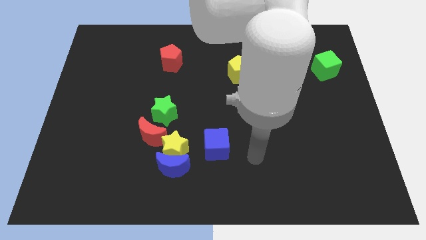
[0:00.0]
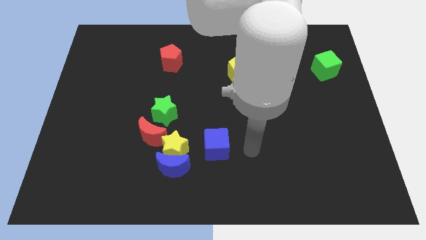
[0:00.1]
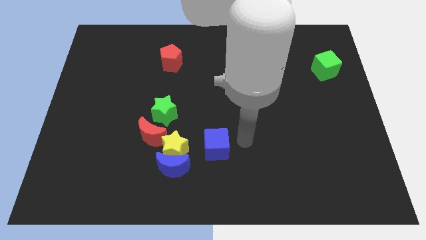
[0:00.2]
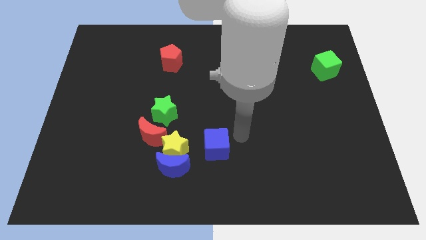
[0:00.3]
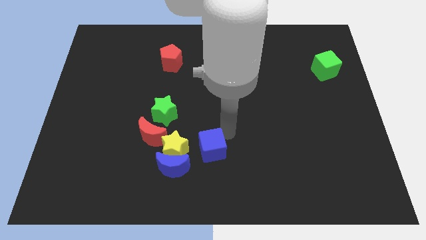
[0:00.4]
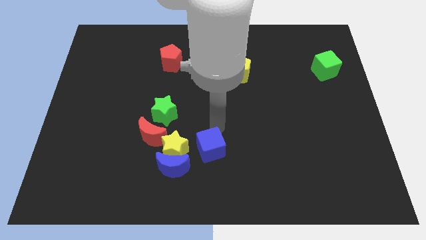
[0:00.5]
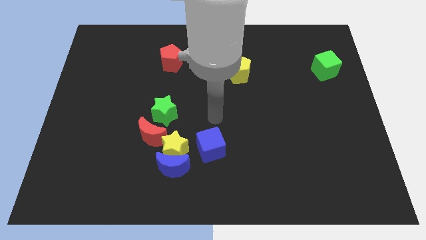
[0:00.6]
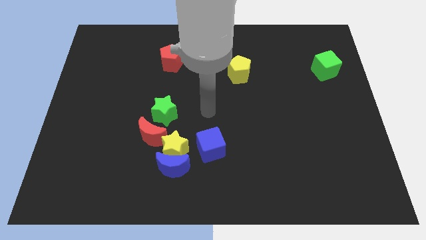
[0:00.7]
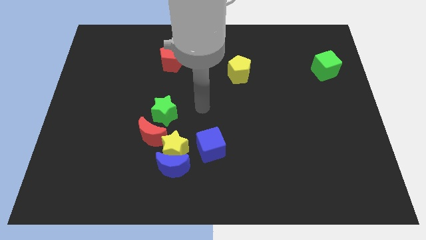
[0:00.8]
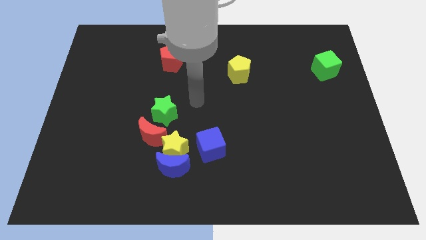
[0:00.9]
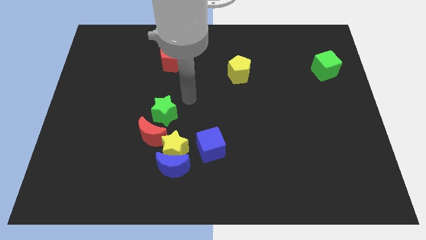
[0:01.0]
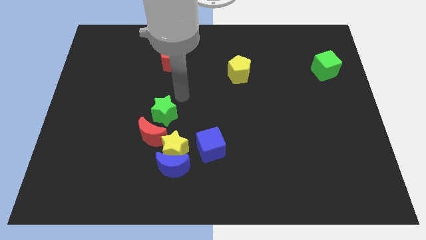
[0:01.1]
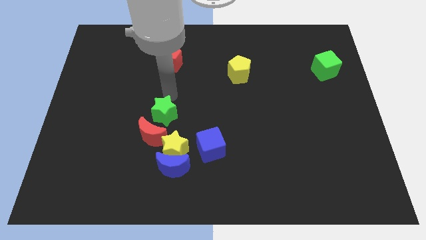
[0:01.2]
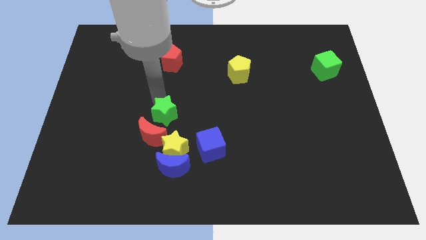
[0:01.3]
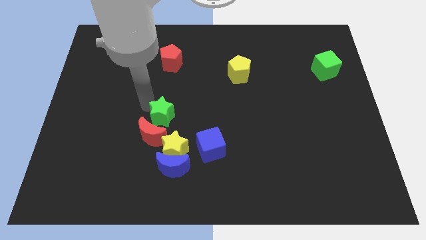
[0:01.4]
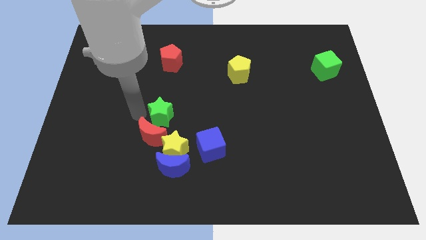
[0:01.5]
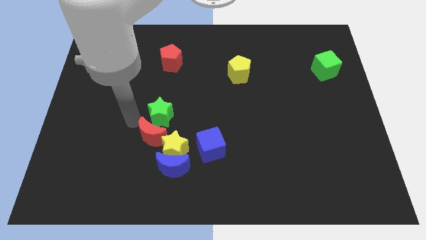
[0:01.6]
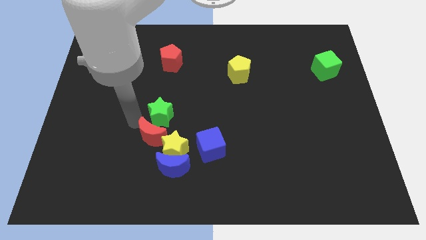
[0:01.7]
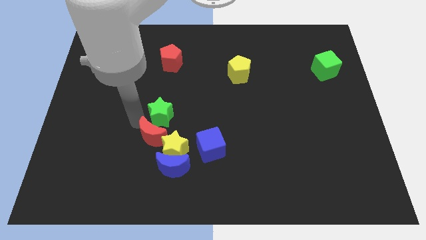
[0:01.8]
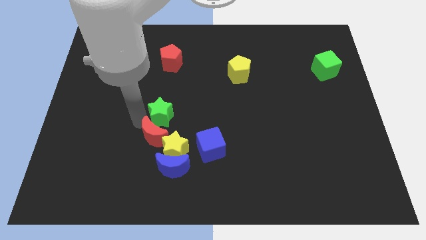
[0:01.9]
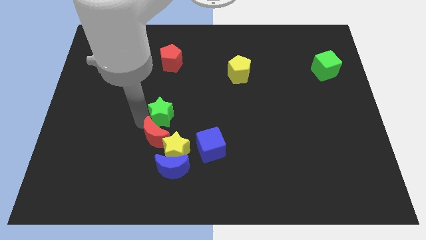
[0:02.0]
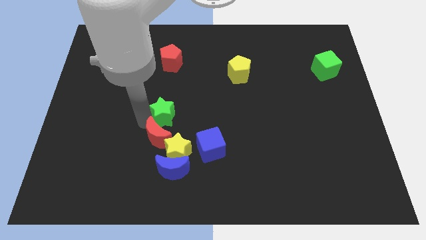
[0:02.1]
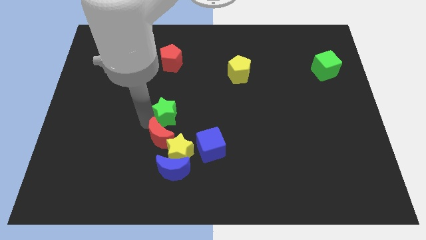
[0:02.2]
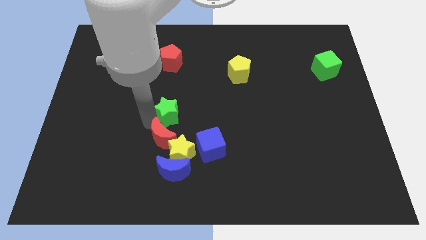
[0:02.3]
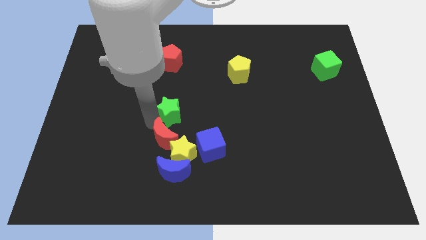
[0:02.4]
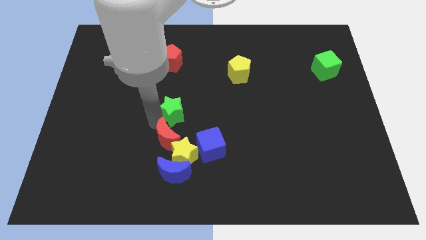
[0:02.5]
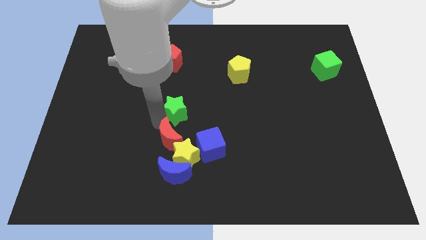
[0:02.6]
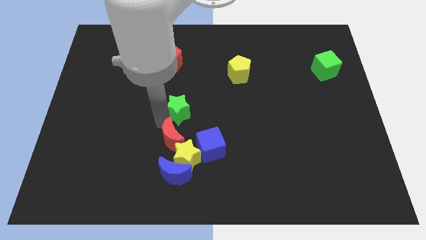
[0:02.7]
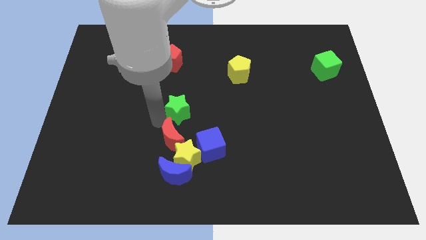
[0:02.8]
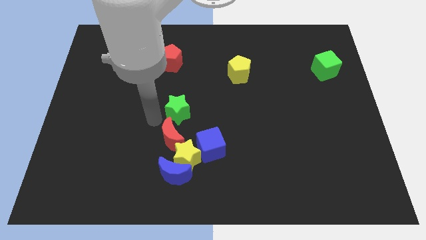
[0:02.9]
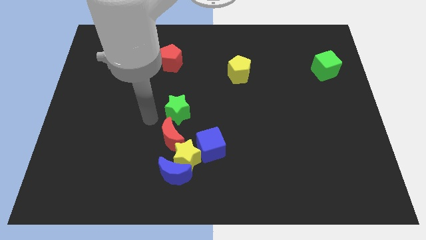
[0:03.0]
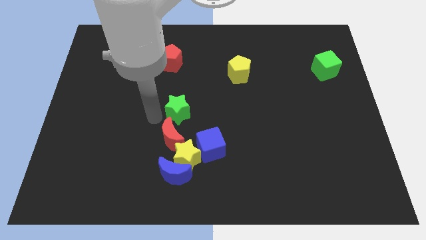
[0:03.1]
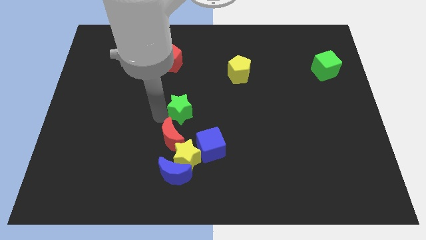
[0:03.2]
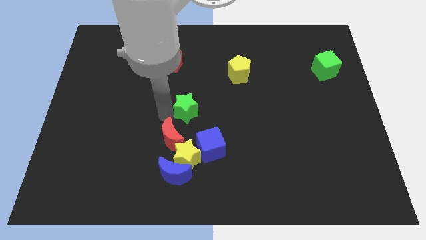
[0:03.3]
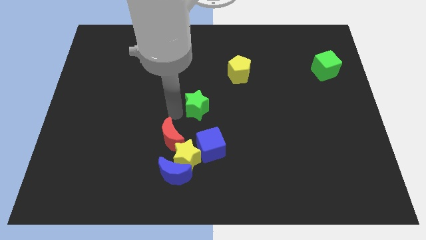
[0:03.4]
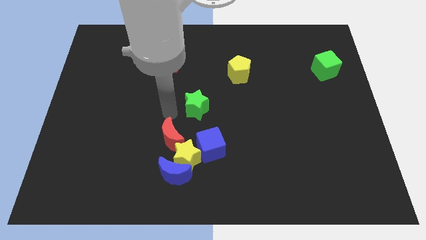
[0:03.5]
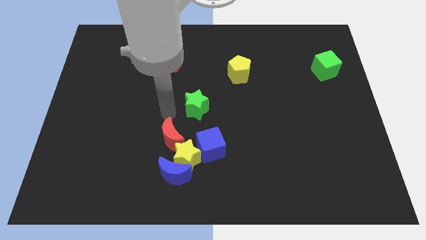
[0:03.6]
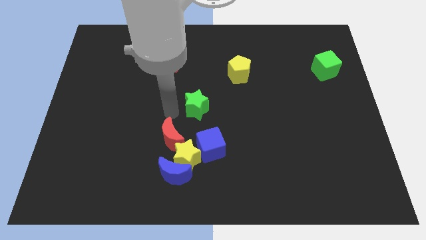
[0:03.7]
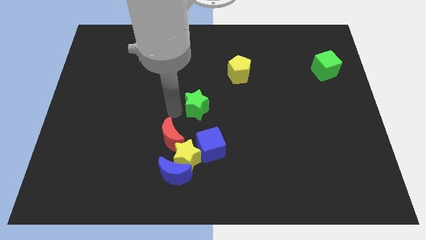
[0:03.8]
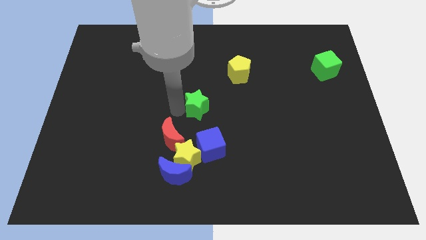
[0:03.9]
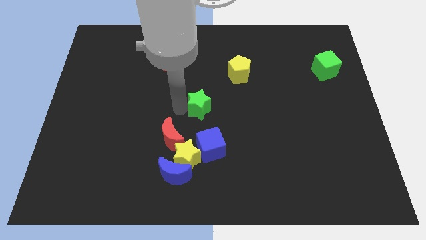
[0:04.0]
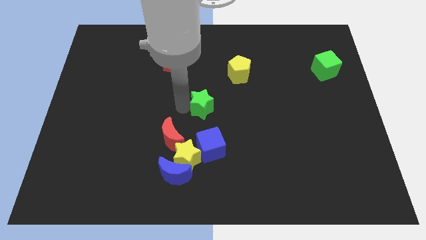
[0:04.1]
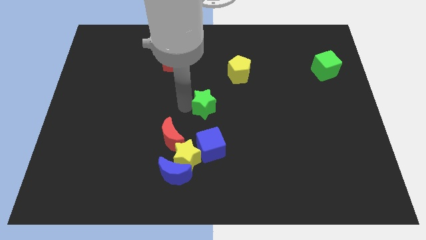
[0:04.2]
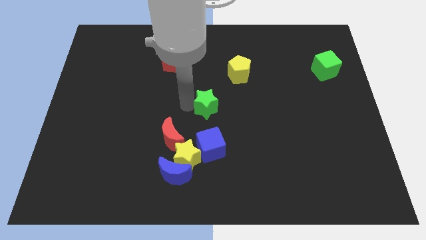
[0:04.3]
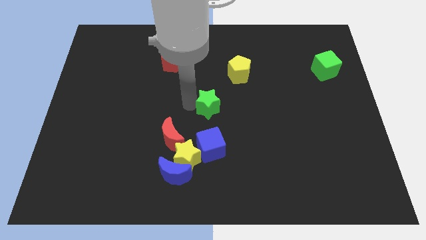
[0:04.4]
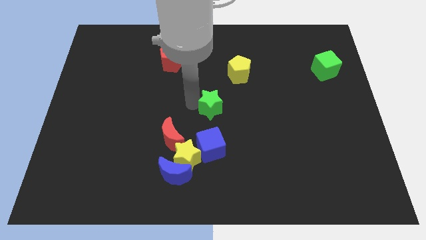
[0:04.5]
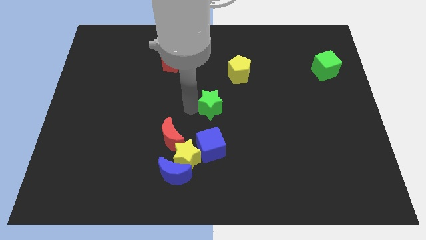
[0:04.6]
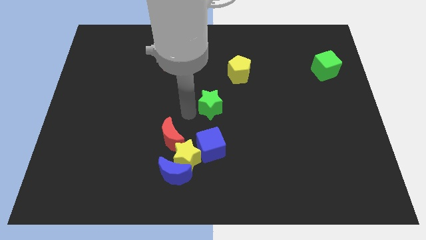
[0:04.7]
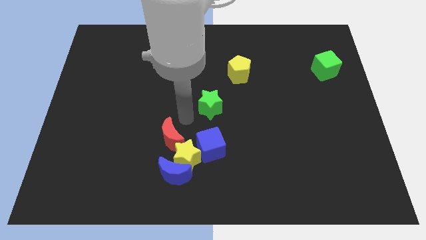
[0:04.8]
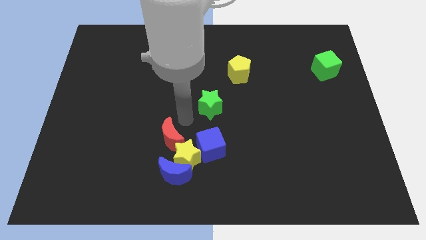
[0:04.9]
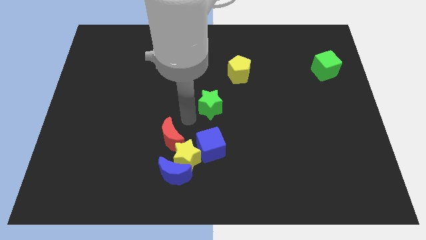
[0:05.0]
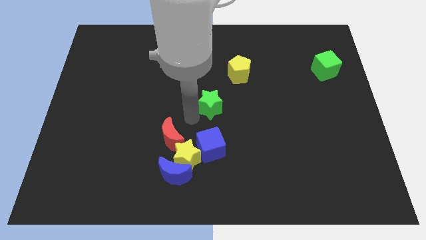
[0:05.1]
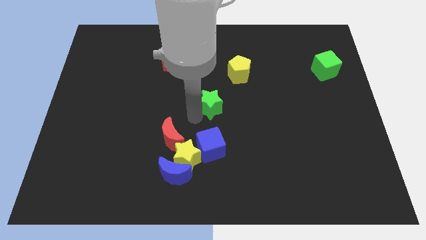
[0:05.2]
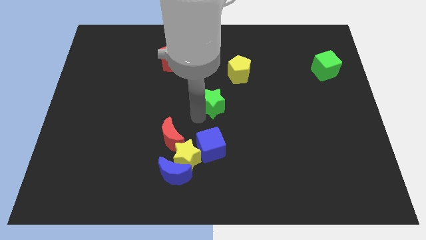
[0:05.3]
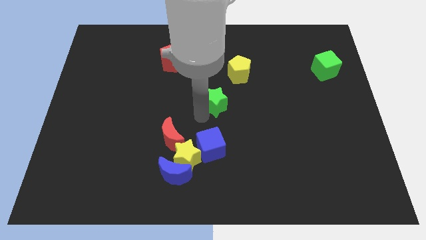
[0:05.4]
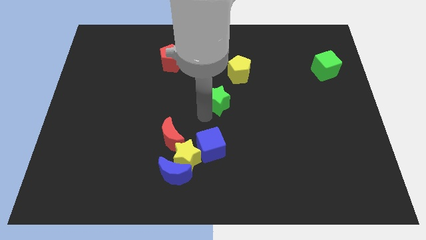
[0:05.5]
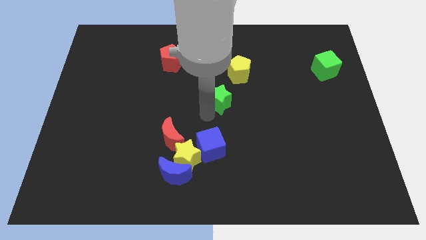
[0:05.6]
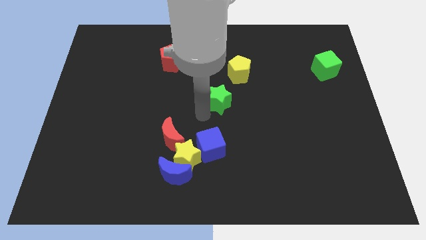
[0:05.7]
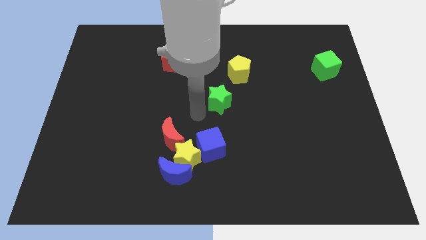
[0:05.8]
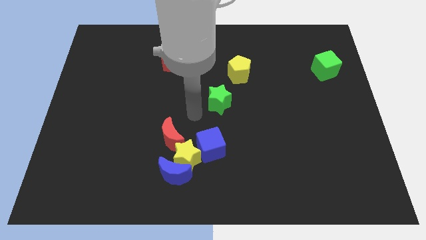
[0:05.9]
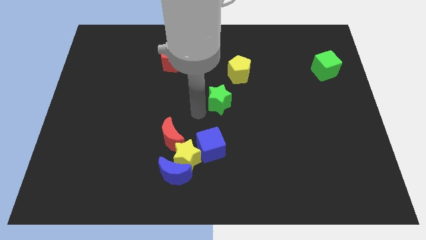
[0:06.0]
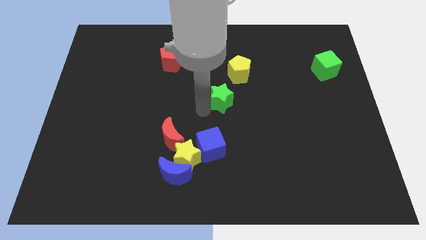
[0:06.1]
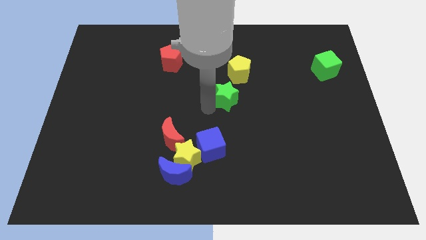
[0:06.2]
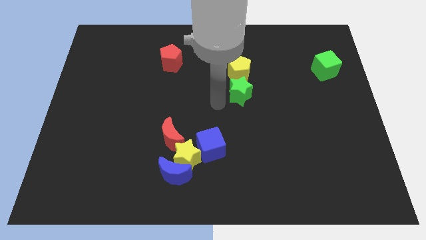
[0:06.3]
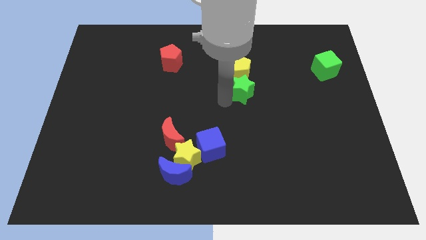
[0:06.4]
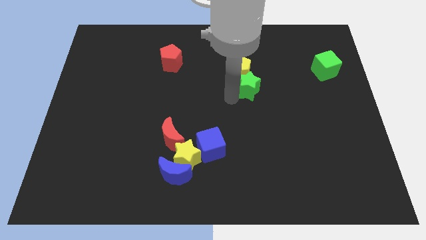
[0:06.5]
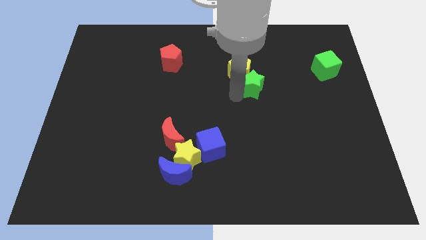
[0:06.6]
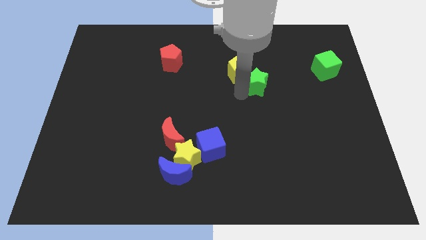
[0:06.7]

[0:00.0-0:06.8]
put the green star right of the yellow pentagon
